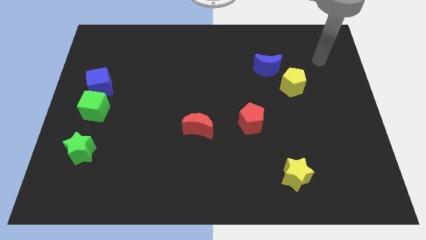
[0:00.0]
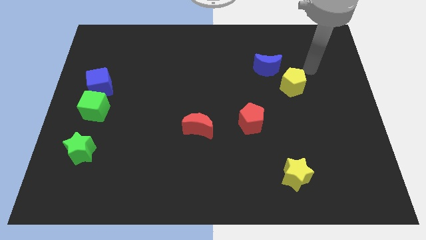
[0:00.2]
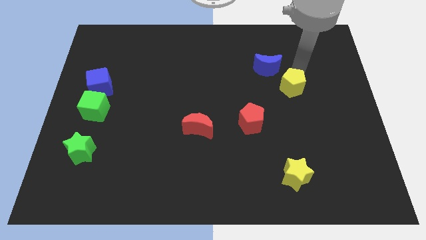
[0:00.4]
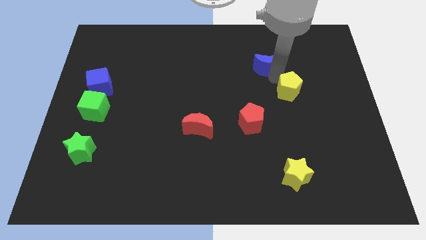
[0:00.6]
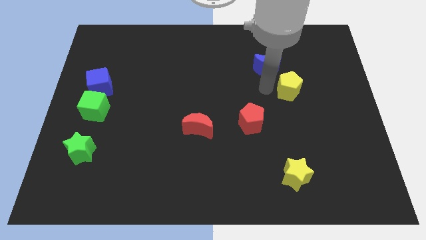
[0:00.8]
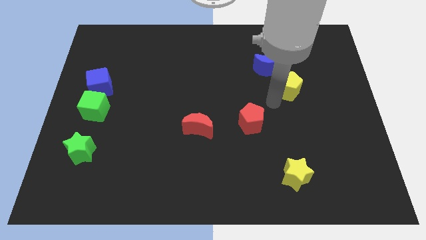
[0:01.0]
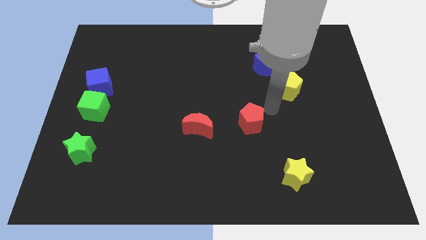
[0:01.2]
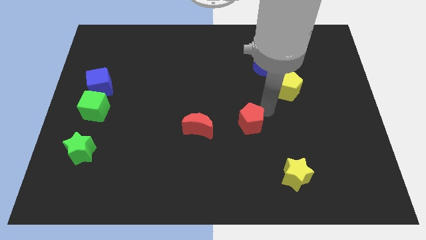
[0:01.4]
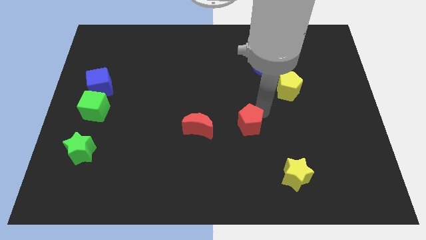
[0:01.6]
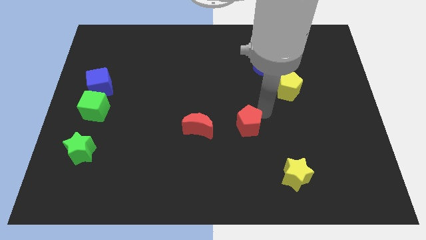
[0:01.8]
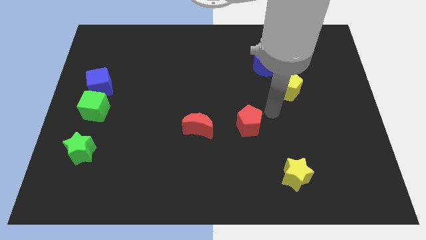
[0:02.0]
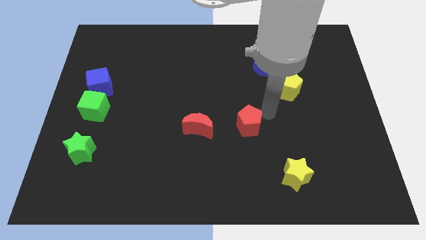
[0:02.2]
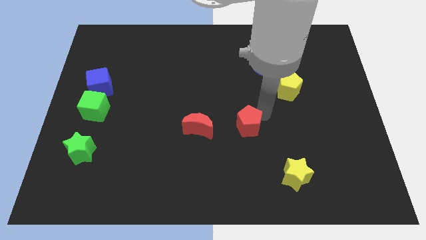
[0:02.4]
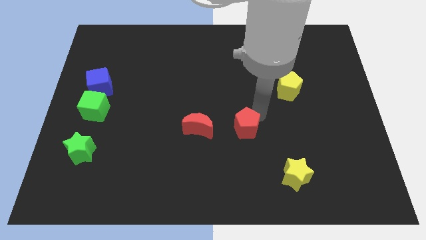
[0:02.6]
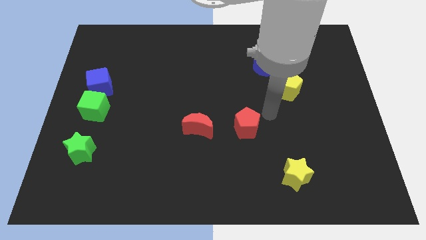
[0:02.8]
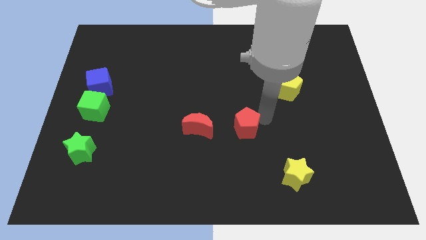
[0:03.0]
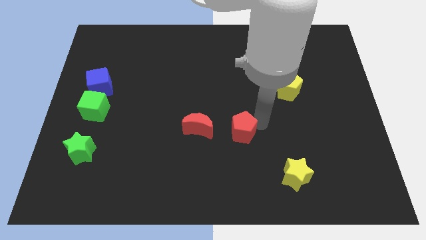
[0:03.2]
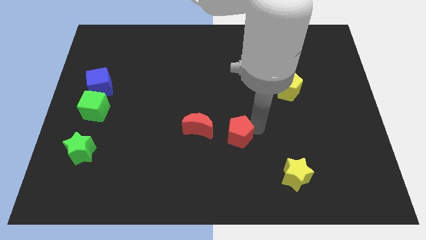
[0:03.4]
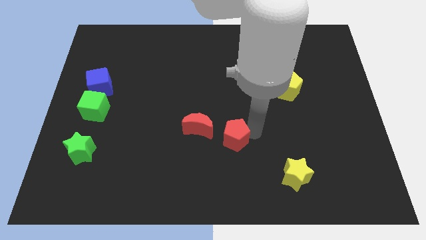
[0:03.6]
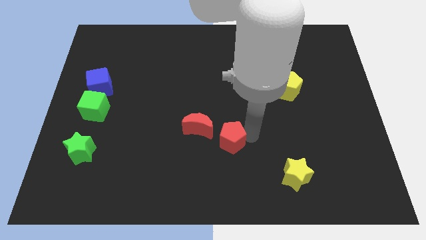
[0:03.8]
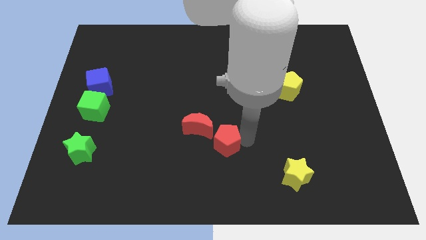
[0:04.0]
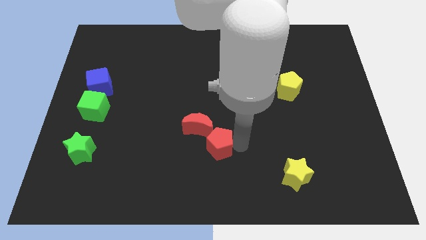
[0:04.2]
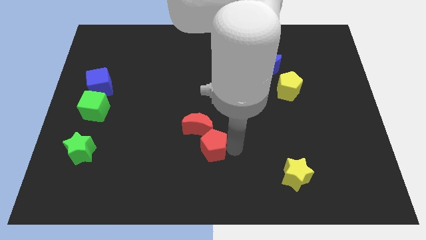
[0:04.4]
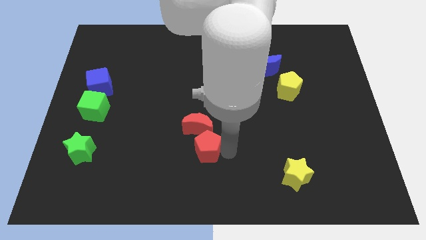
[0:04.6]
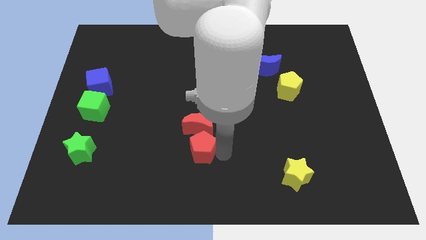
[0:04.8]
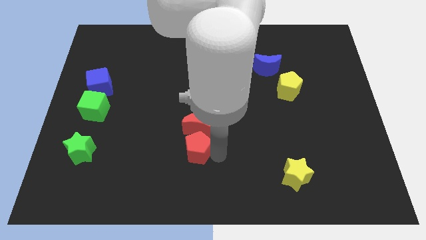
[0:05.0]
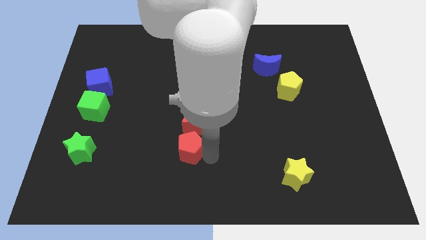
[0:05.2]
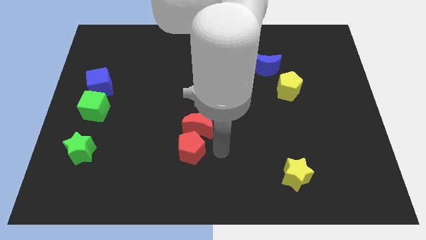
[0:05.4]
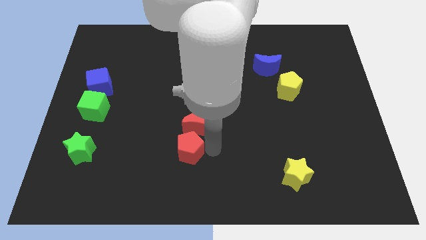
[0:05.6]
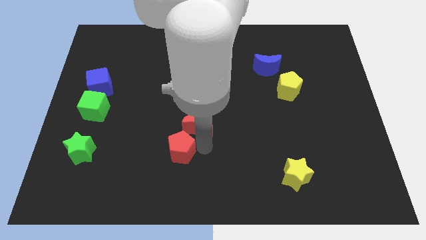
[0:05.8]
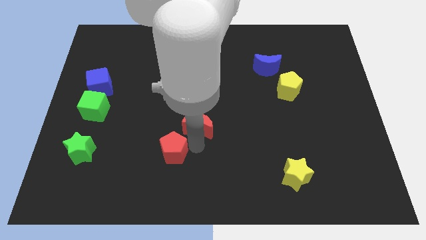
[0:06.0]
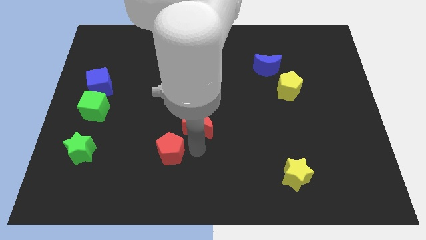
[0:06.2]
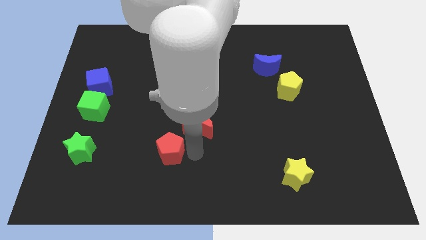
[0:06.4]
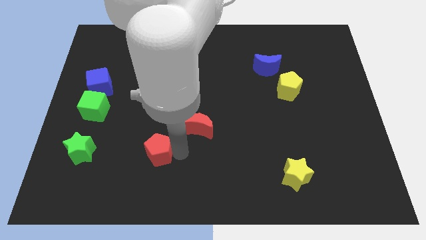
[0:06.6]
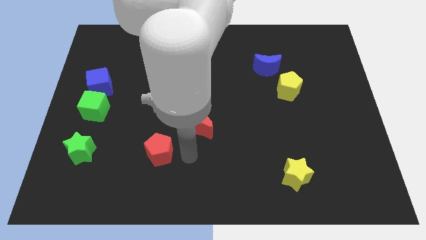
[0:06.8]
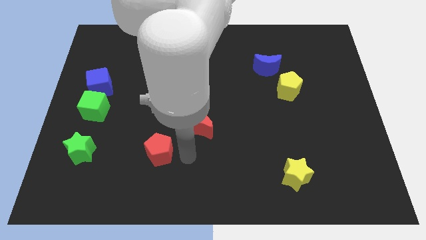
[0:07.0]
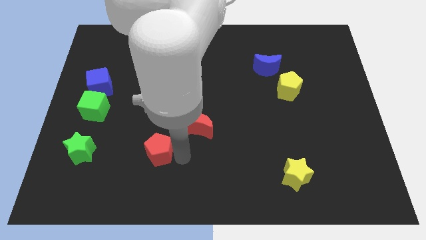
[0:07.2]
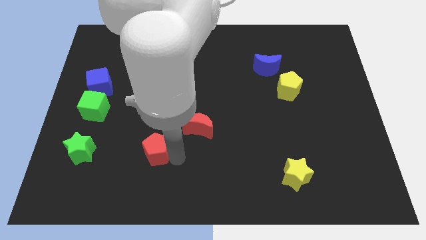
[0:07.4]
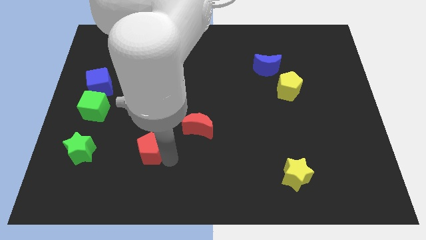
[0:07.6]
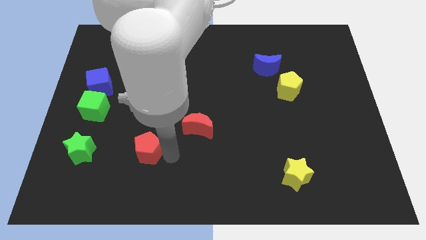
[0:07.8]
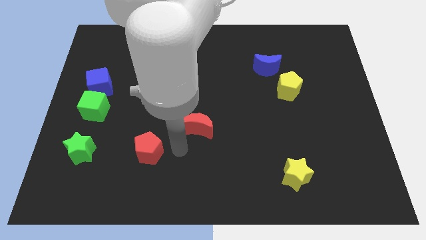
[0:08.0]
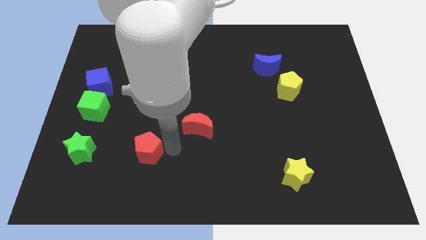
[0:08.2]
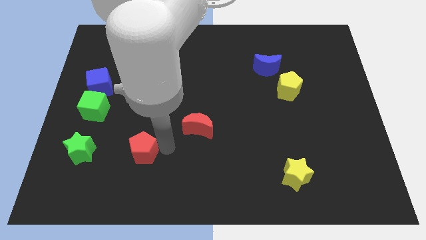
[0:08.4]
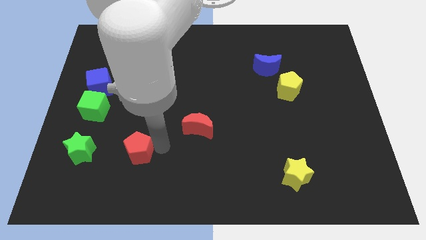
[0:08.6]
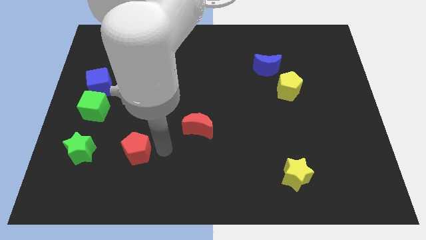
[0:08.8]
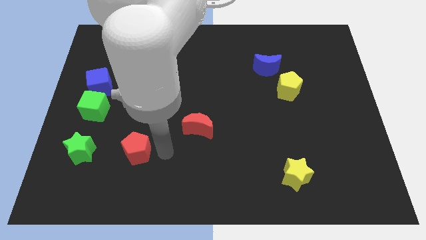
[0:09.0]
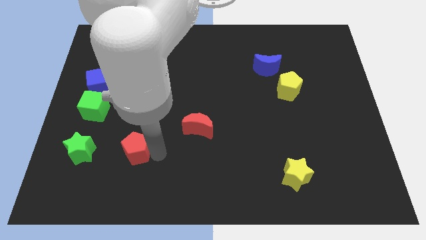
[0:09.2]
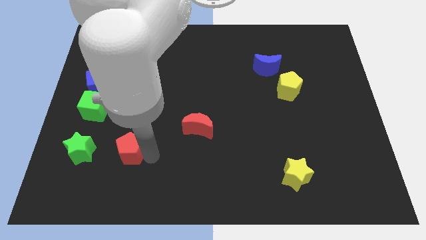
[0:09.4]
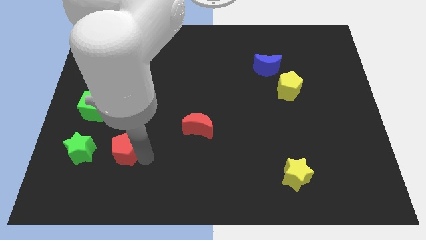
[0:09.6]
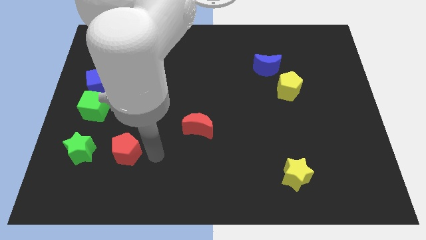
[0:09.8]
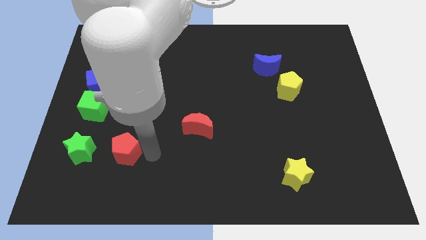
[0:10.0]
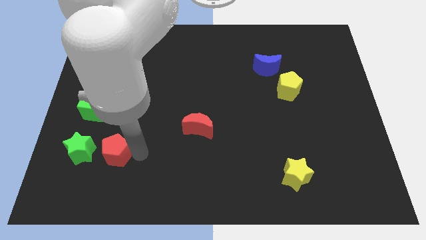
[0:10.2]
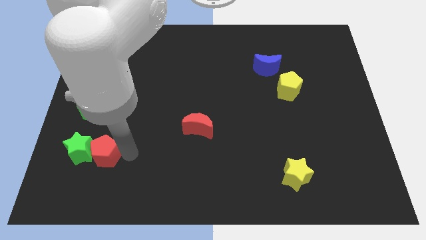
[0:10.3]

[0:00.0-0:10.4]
move the red pentagon towards the green star

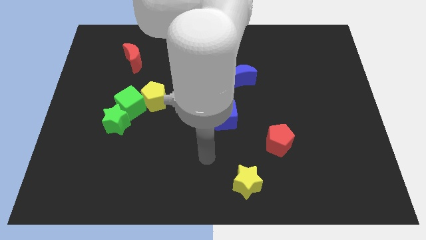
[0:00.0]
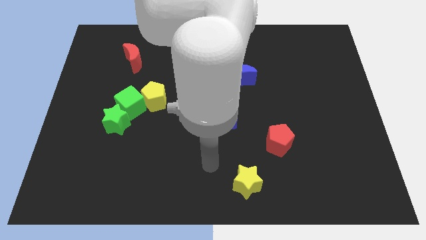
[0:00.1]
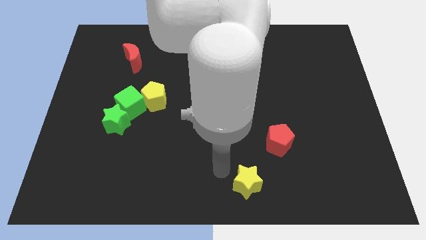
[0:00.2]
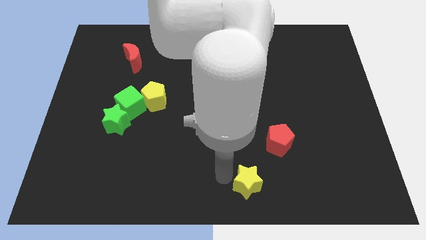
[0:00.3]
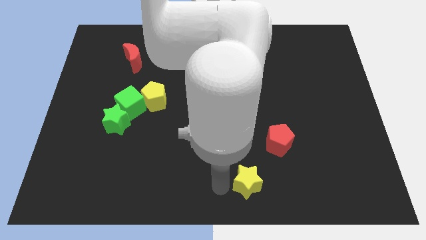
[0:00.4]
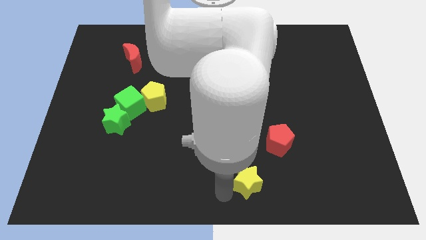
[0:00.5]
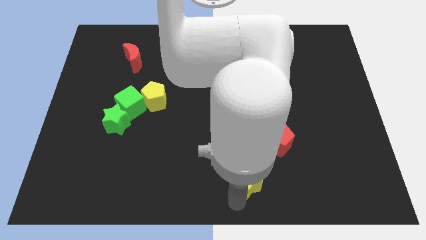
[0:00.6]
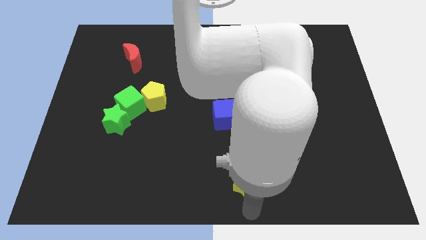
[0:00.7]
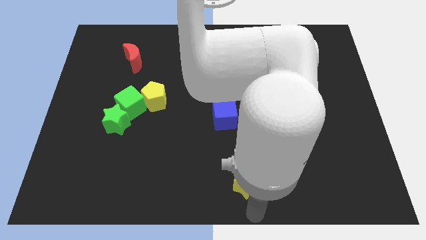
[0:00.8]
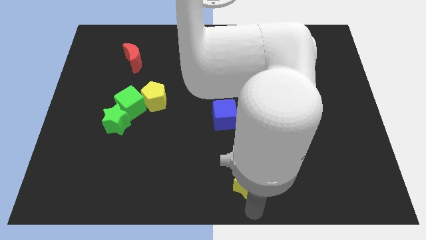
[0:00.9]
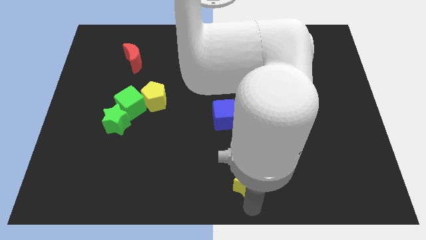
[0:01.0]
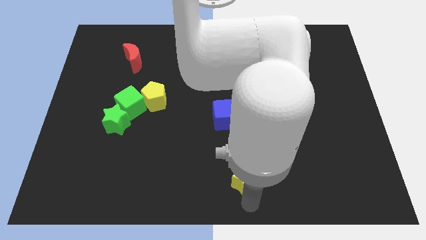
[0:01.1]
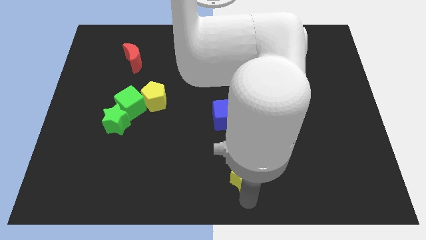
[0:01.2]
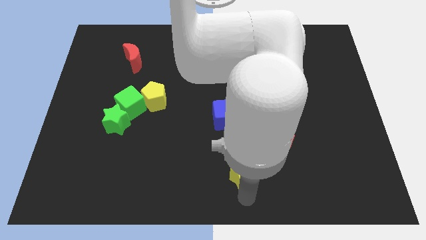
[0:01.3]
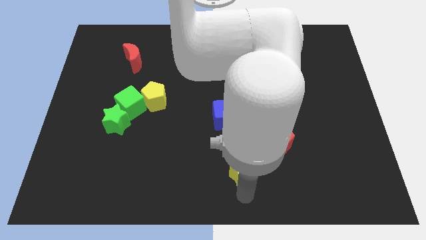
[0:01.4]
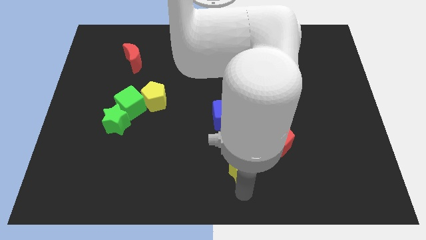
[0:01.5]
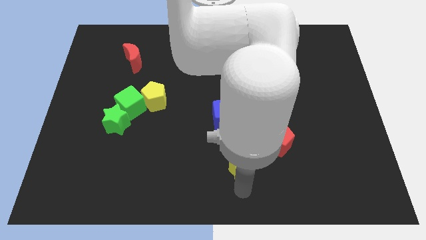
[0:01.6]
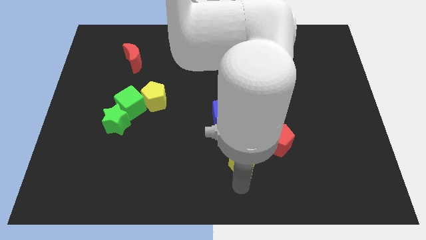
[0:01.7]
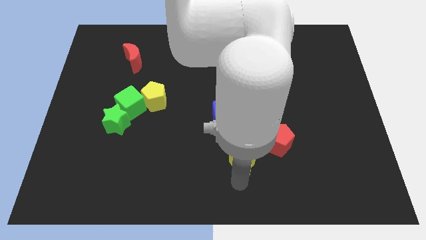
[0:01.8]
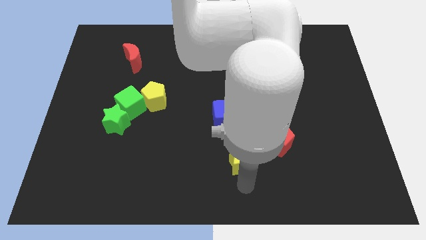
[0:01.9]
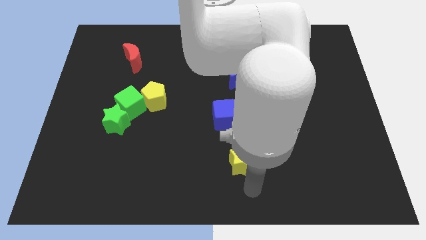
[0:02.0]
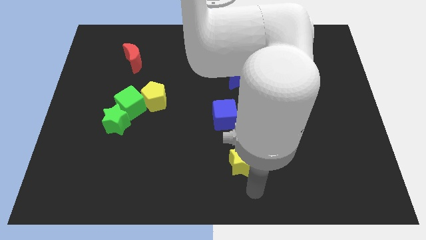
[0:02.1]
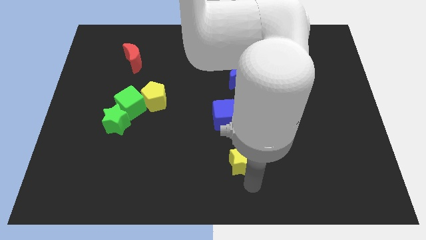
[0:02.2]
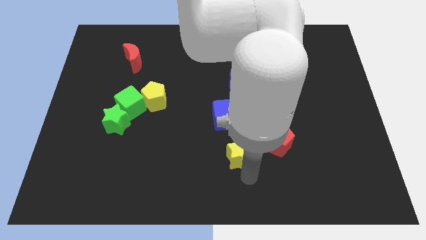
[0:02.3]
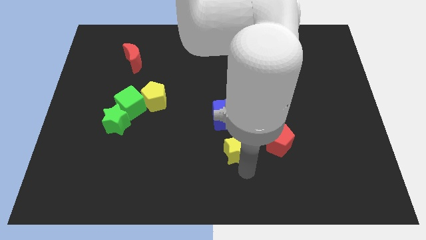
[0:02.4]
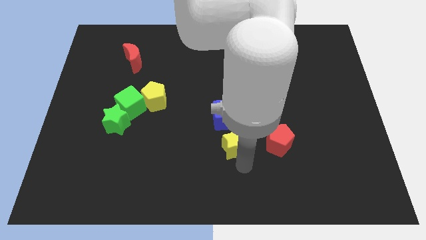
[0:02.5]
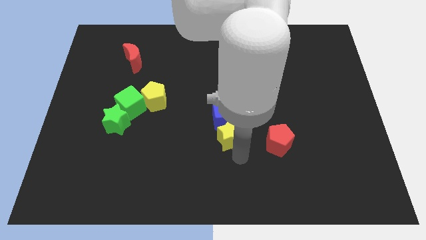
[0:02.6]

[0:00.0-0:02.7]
push the yellow star next to the blue cube
